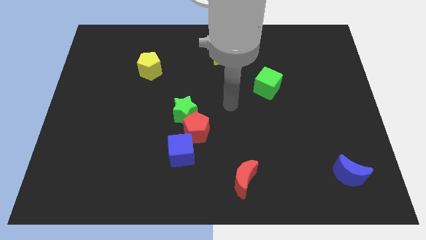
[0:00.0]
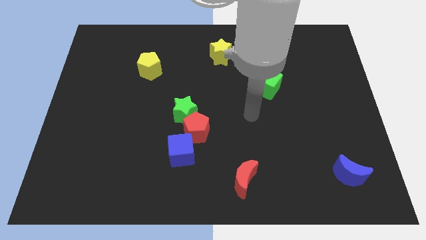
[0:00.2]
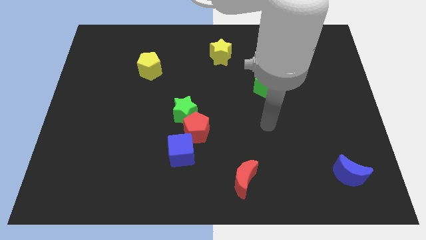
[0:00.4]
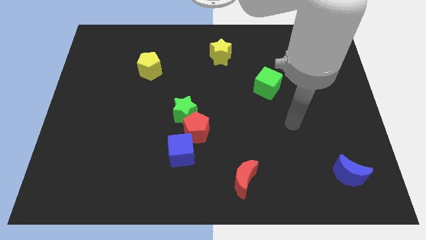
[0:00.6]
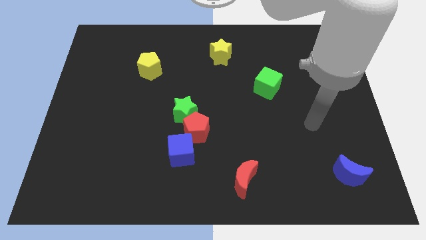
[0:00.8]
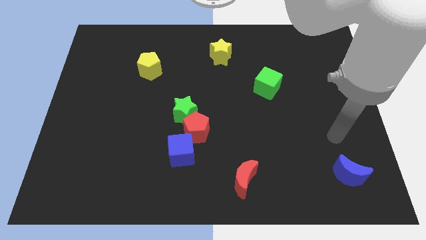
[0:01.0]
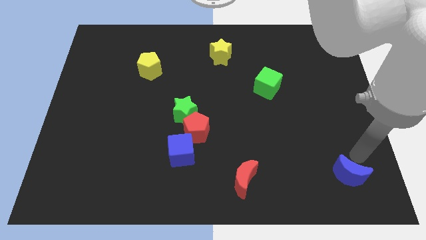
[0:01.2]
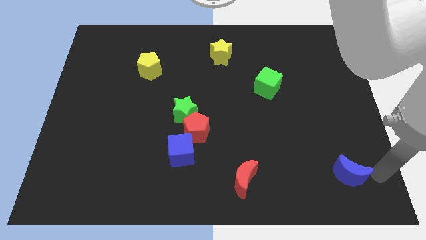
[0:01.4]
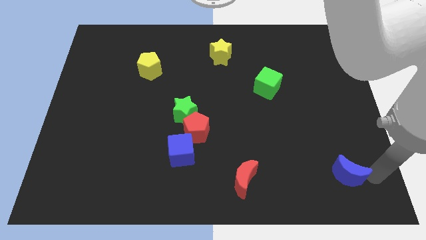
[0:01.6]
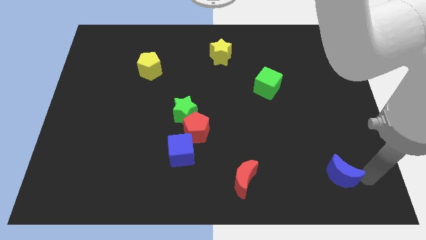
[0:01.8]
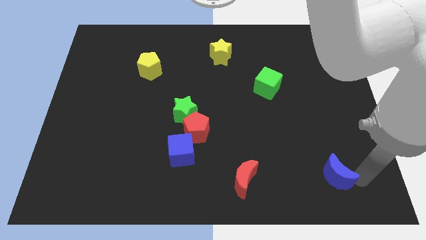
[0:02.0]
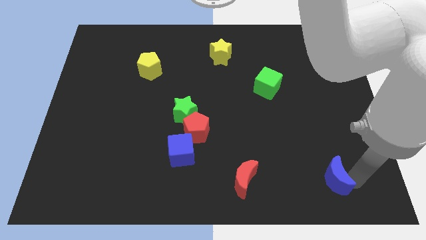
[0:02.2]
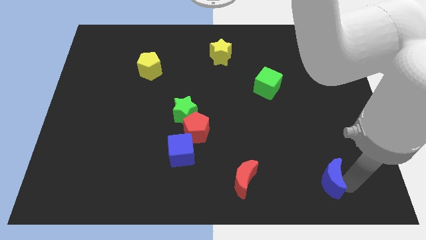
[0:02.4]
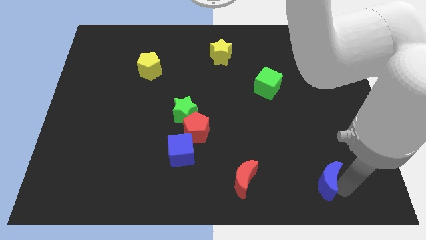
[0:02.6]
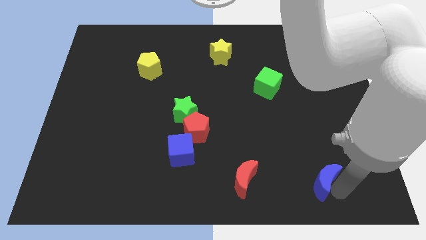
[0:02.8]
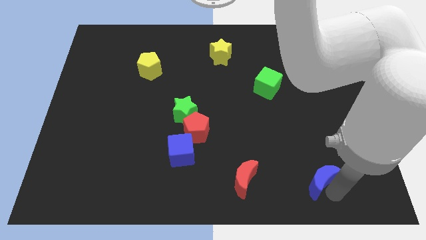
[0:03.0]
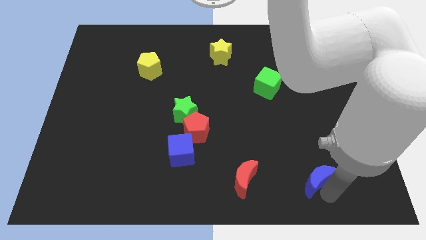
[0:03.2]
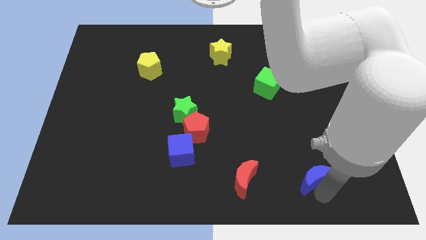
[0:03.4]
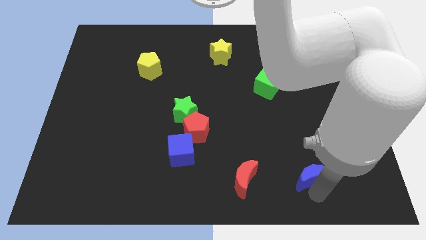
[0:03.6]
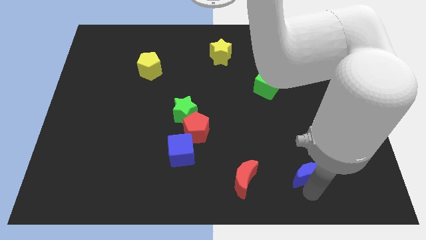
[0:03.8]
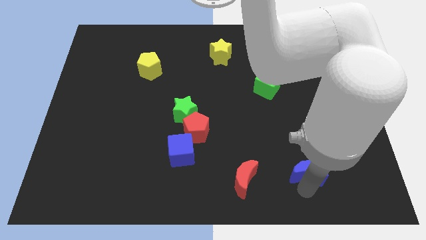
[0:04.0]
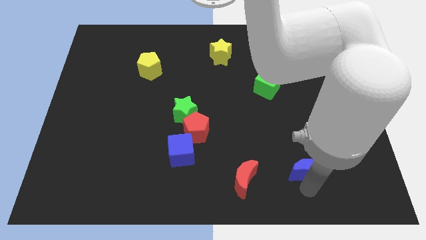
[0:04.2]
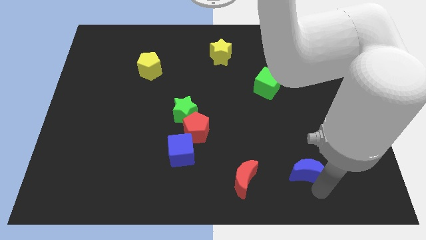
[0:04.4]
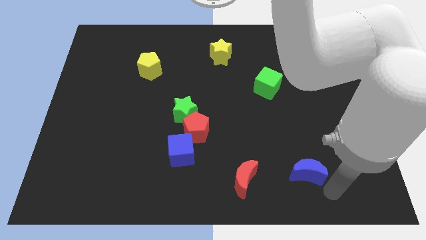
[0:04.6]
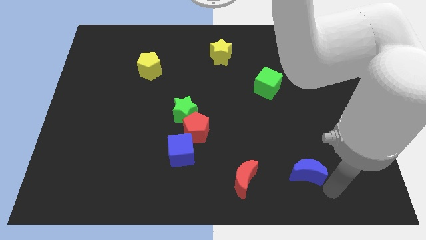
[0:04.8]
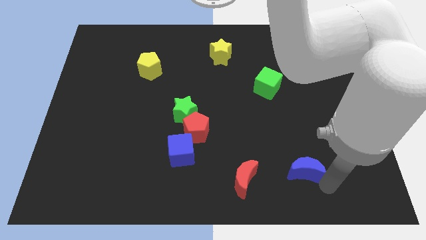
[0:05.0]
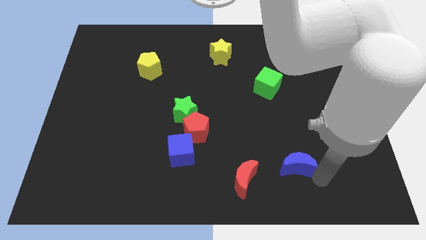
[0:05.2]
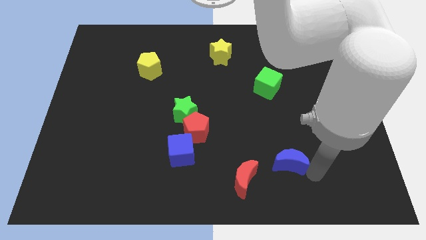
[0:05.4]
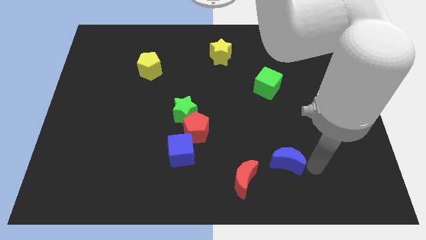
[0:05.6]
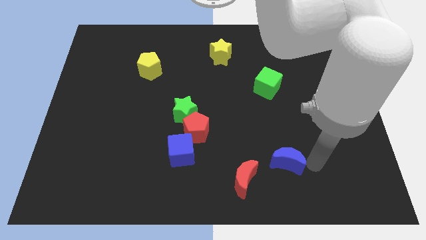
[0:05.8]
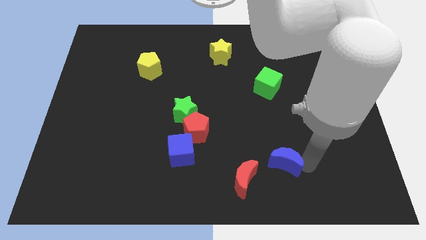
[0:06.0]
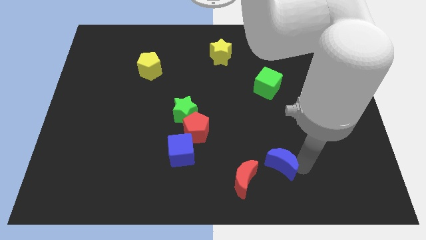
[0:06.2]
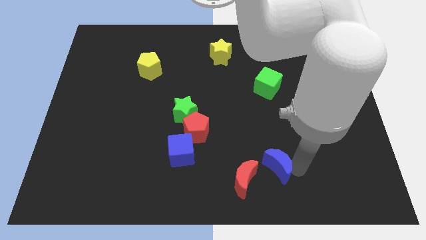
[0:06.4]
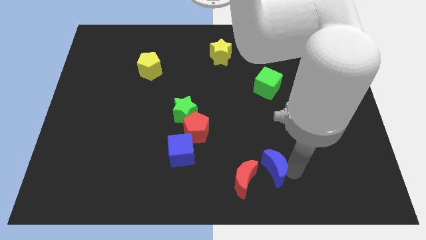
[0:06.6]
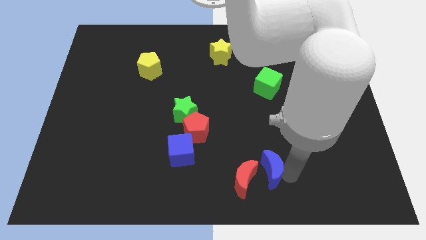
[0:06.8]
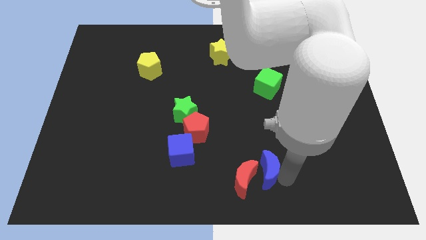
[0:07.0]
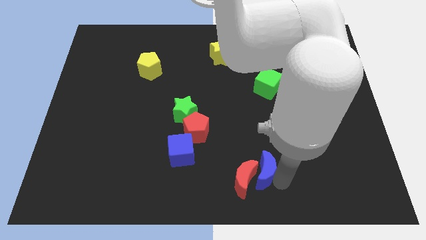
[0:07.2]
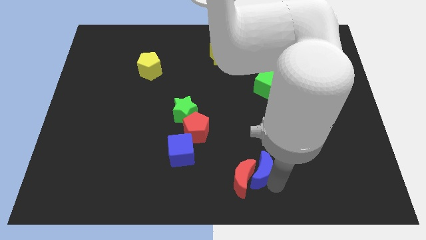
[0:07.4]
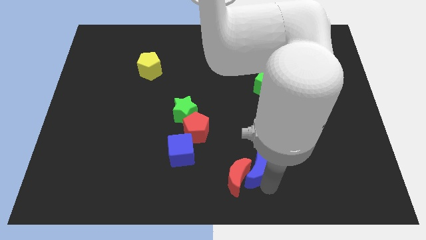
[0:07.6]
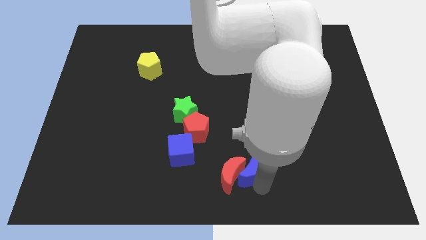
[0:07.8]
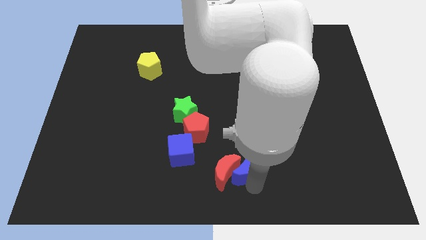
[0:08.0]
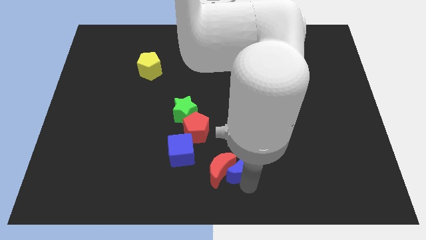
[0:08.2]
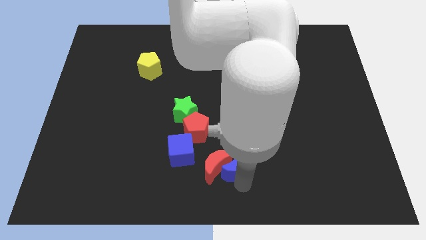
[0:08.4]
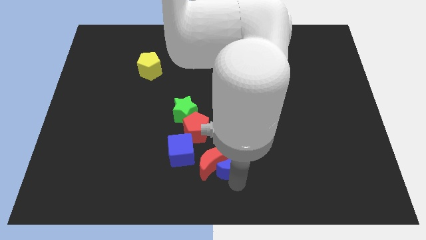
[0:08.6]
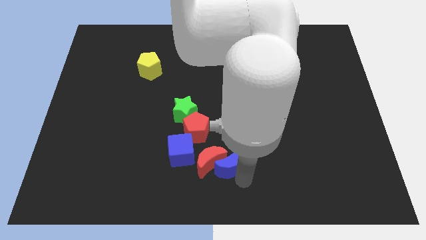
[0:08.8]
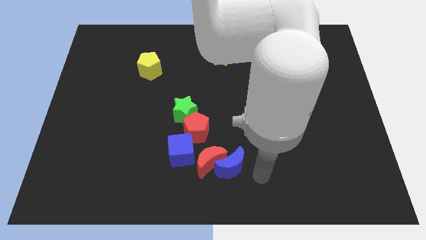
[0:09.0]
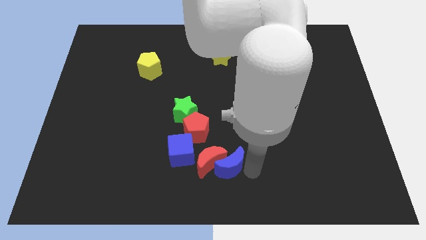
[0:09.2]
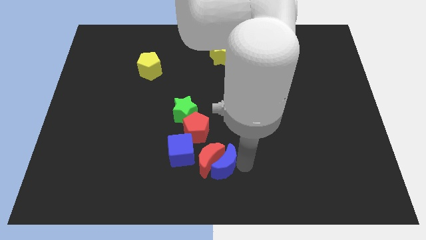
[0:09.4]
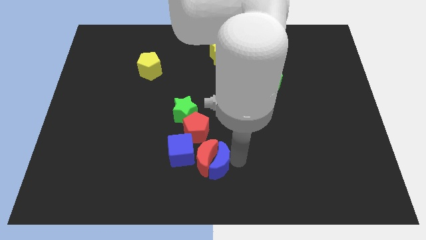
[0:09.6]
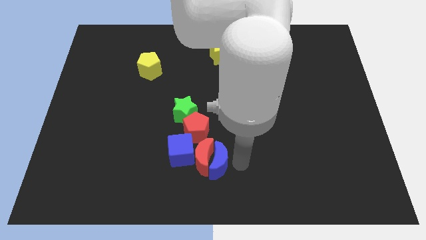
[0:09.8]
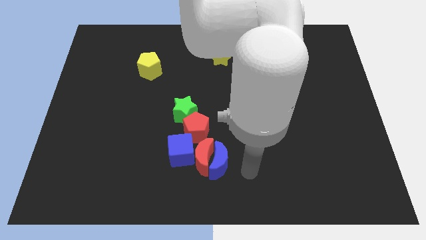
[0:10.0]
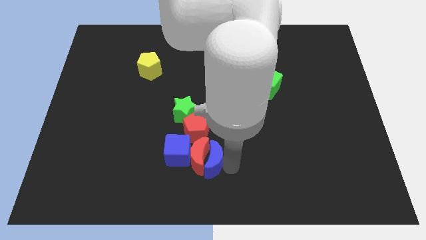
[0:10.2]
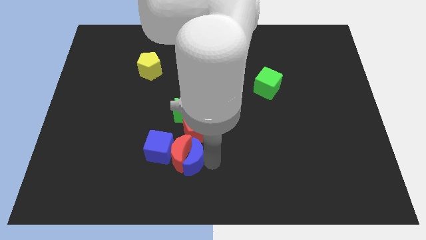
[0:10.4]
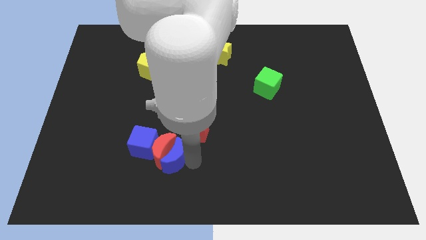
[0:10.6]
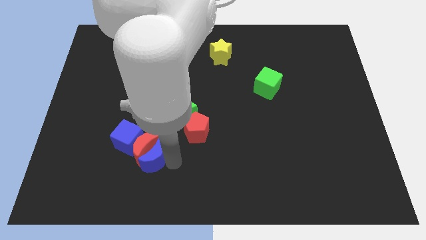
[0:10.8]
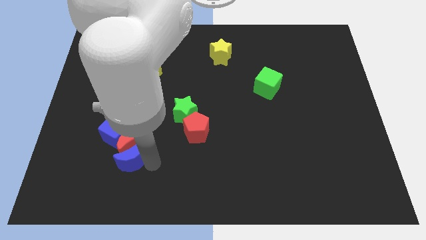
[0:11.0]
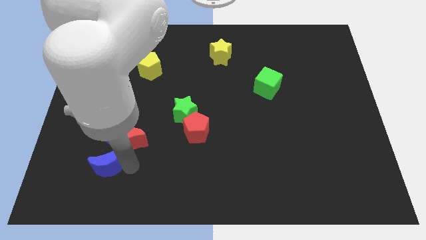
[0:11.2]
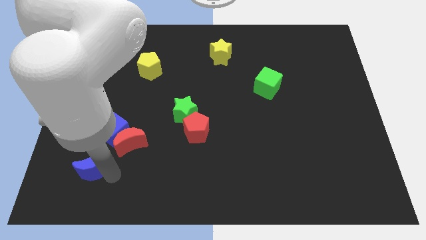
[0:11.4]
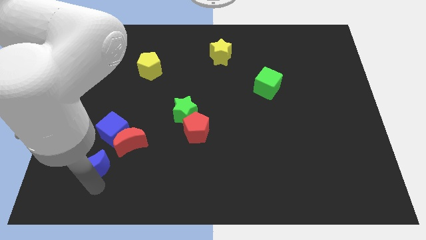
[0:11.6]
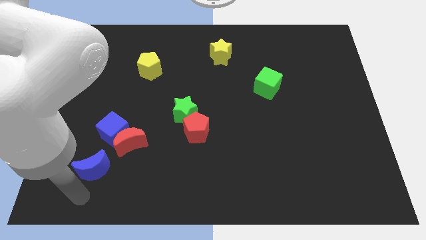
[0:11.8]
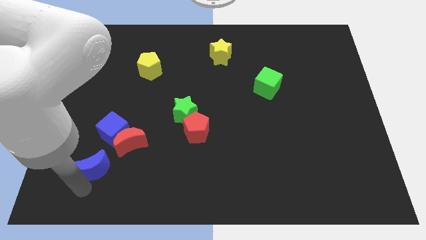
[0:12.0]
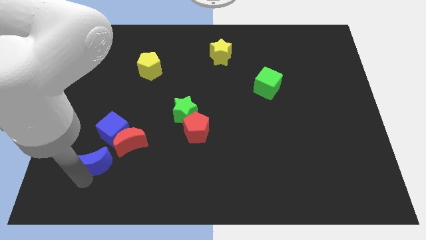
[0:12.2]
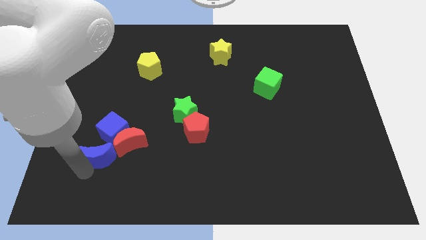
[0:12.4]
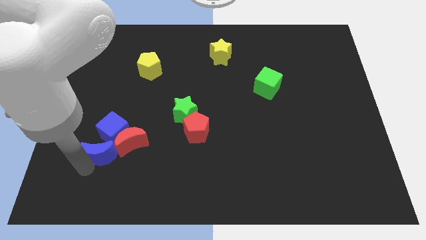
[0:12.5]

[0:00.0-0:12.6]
push the blue moon to the blue cube

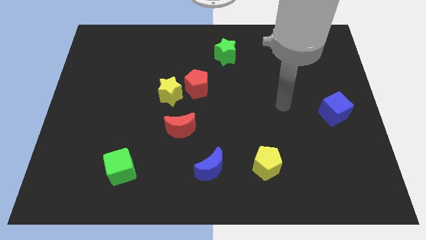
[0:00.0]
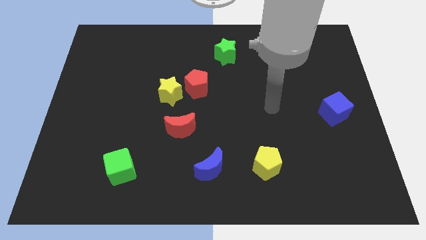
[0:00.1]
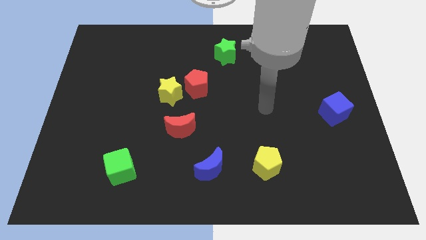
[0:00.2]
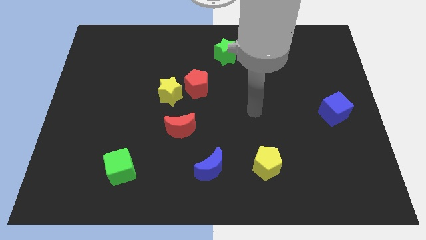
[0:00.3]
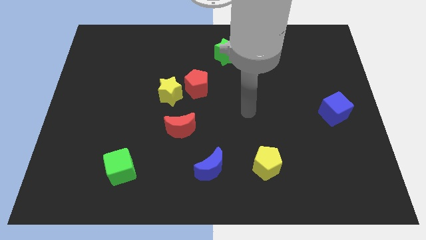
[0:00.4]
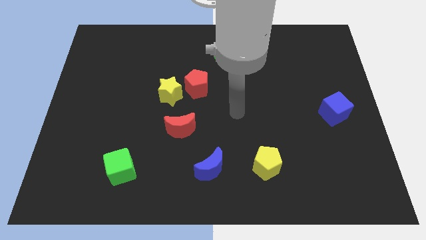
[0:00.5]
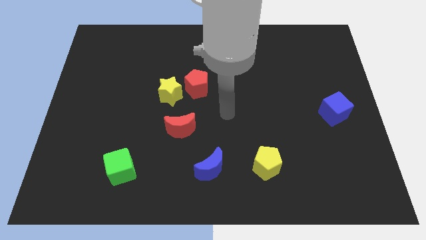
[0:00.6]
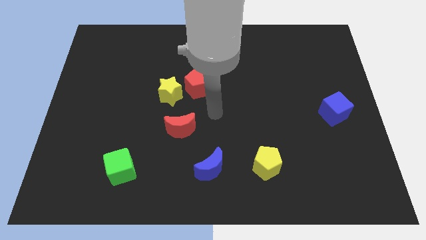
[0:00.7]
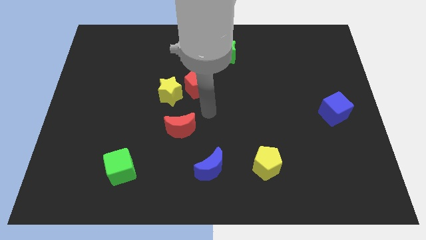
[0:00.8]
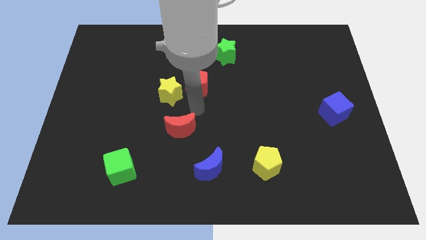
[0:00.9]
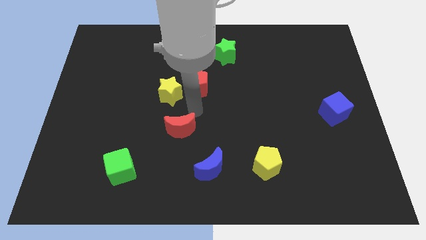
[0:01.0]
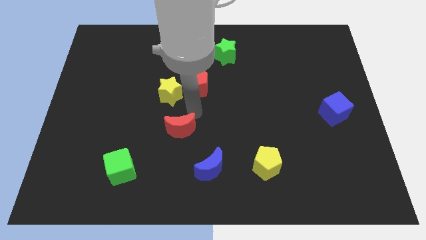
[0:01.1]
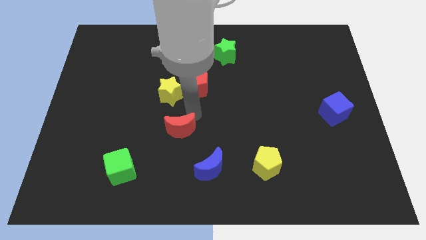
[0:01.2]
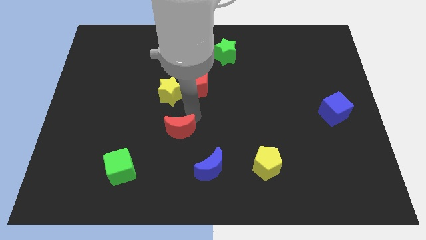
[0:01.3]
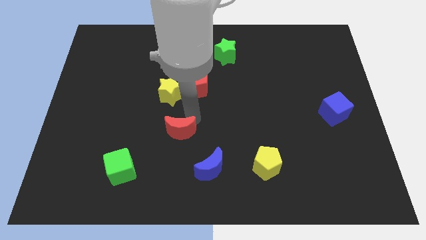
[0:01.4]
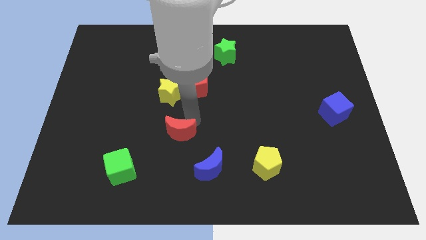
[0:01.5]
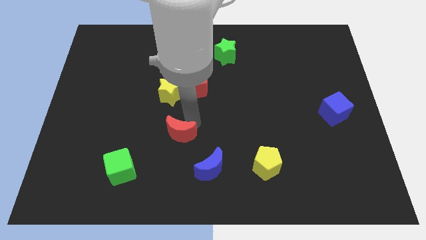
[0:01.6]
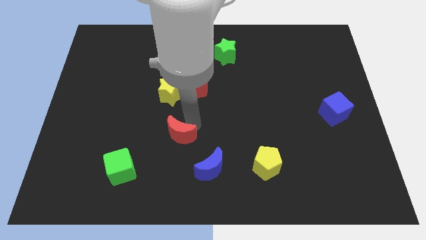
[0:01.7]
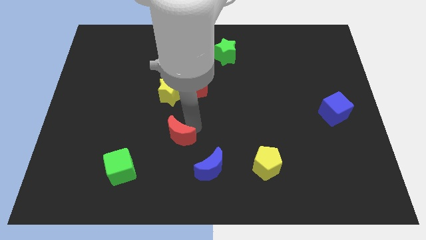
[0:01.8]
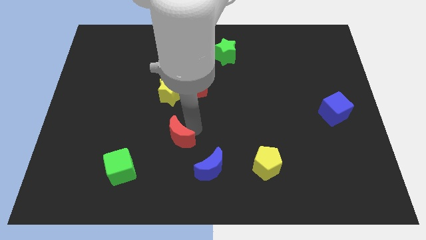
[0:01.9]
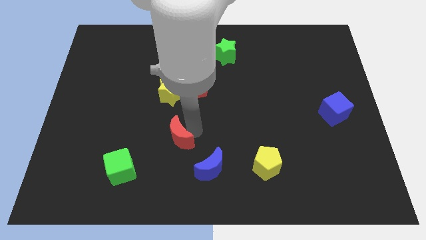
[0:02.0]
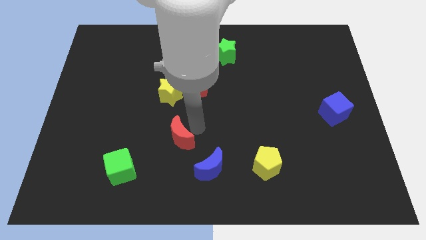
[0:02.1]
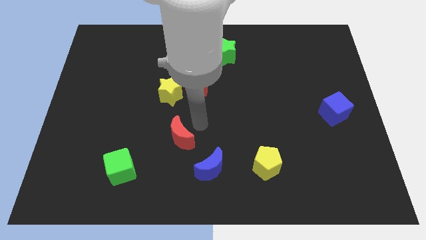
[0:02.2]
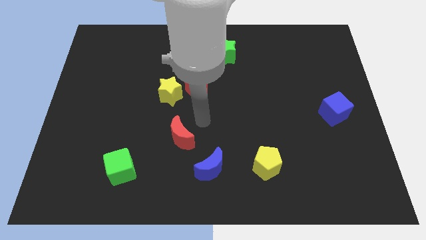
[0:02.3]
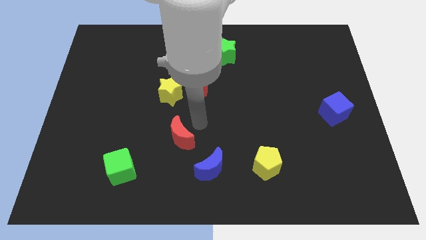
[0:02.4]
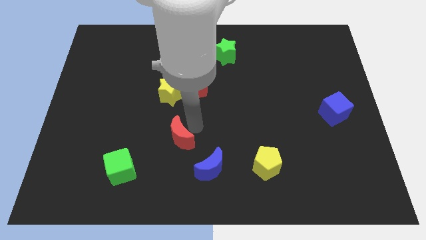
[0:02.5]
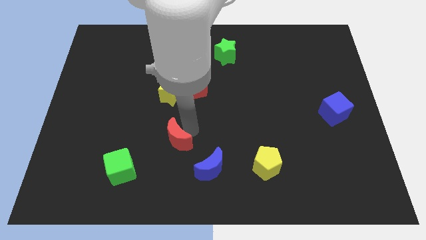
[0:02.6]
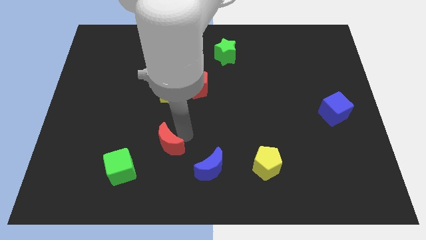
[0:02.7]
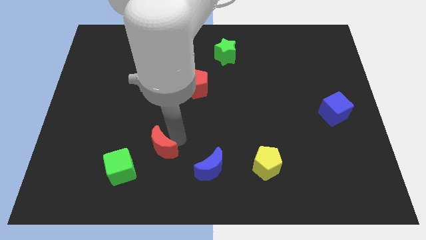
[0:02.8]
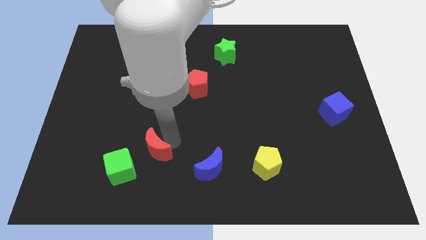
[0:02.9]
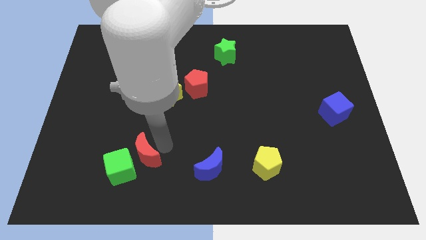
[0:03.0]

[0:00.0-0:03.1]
push the red moon next to the green cube
